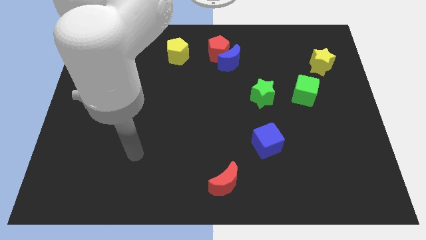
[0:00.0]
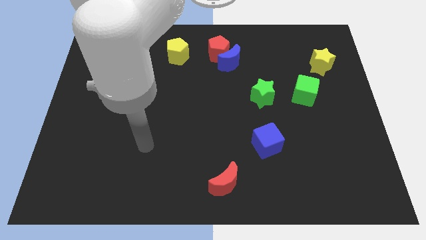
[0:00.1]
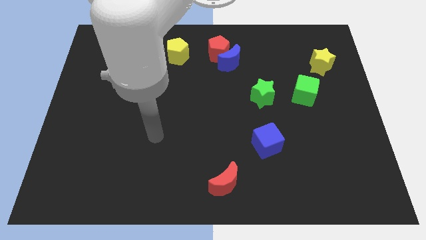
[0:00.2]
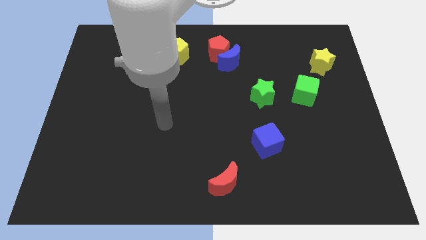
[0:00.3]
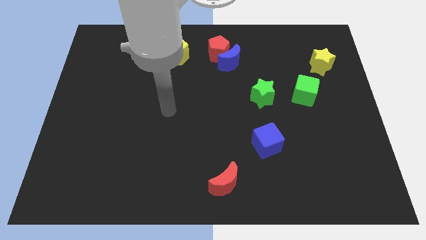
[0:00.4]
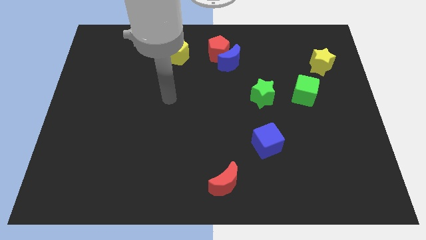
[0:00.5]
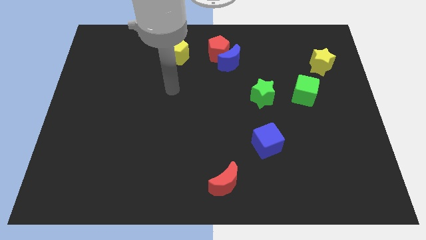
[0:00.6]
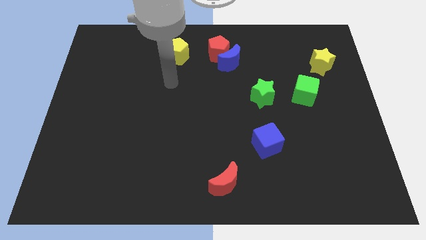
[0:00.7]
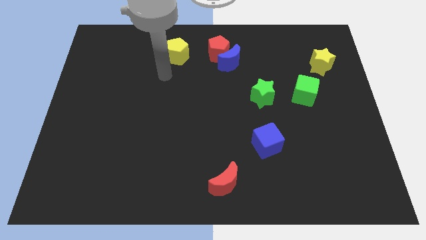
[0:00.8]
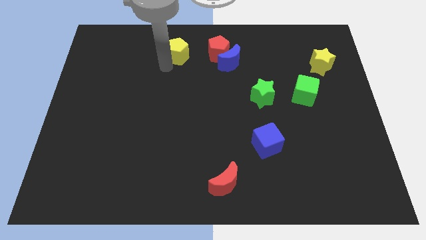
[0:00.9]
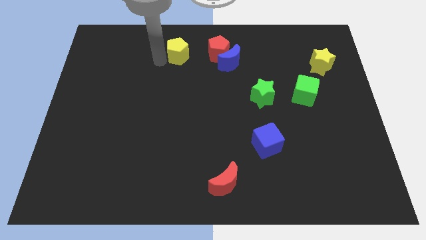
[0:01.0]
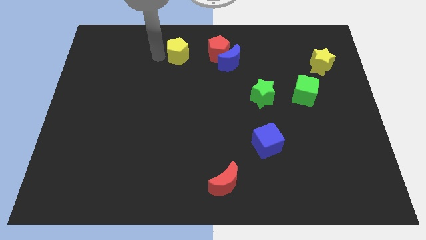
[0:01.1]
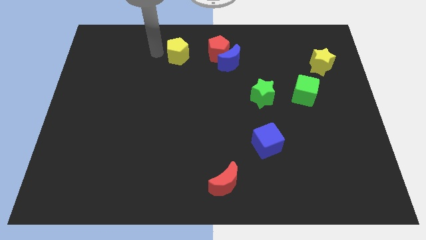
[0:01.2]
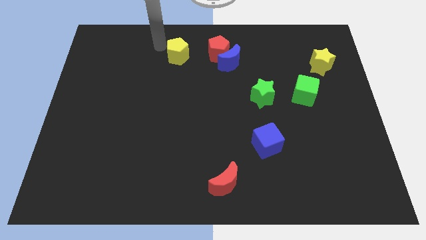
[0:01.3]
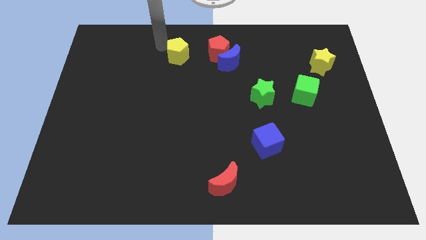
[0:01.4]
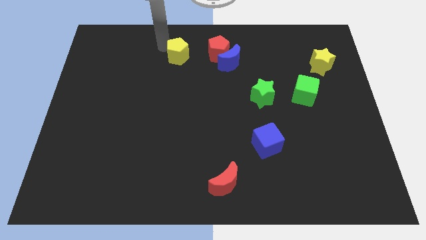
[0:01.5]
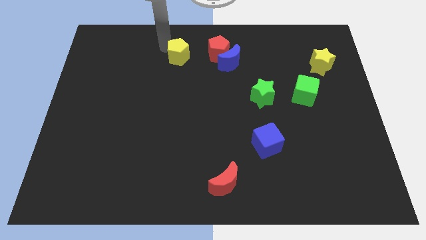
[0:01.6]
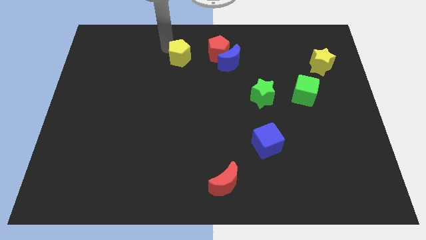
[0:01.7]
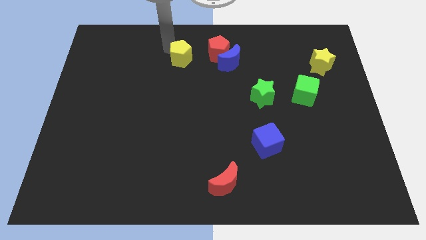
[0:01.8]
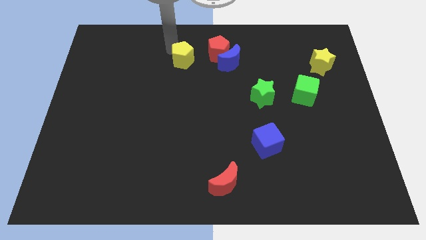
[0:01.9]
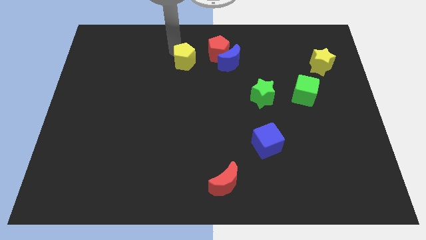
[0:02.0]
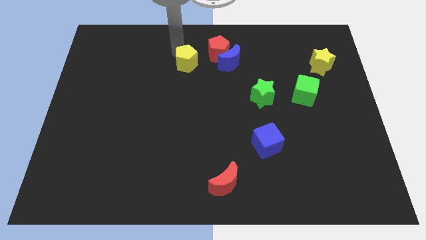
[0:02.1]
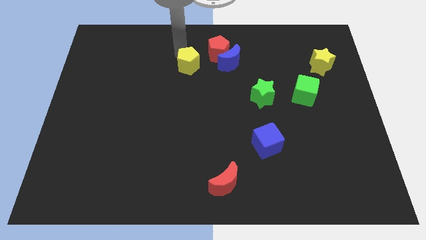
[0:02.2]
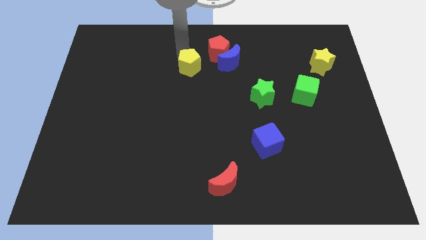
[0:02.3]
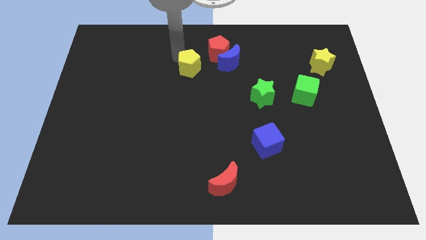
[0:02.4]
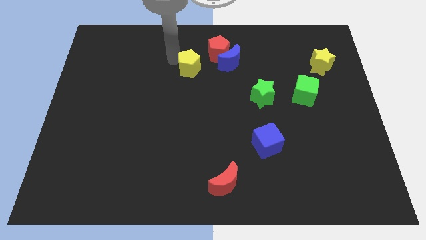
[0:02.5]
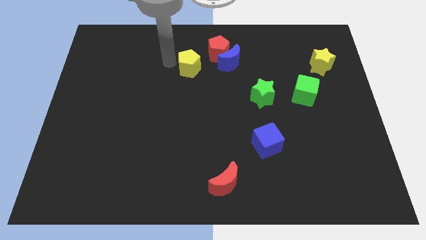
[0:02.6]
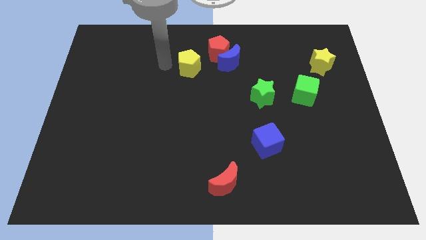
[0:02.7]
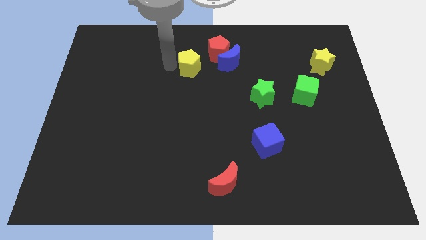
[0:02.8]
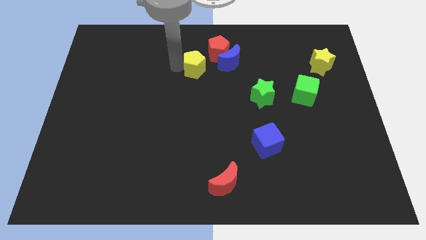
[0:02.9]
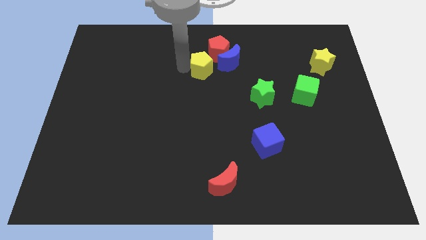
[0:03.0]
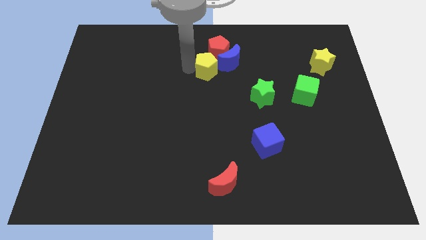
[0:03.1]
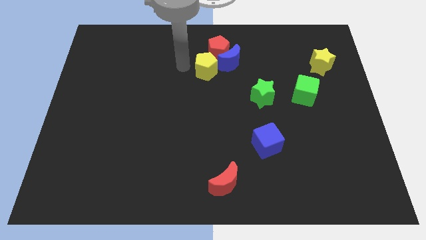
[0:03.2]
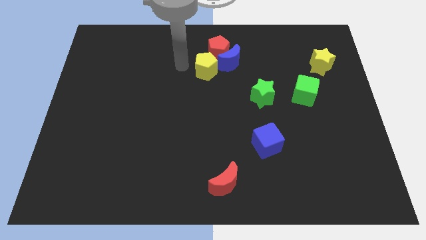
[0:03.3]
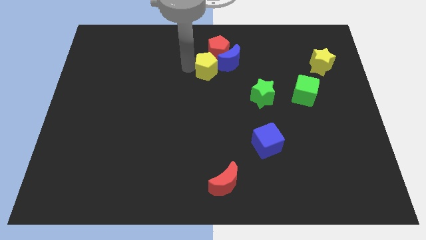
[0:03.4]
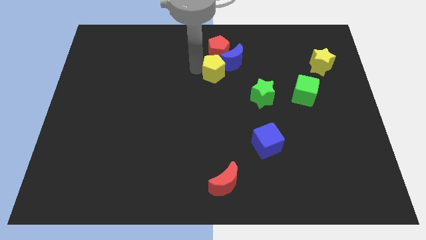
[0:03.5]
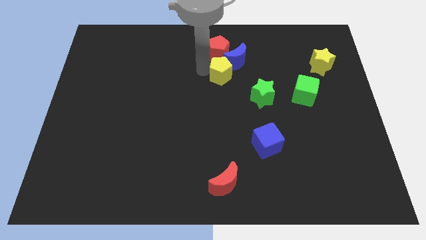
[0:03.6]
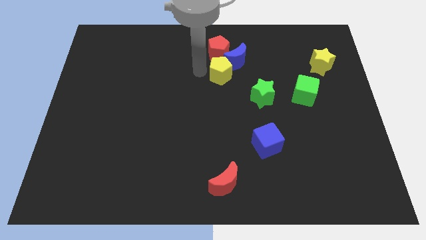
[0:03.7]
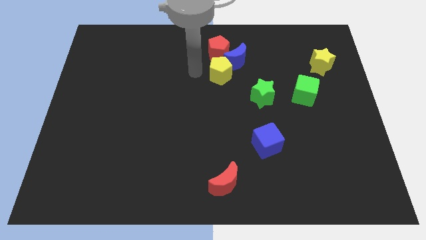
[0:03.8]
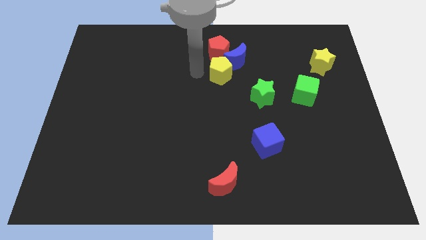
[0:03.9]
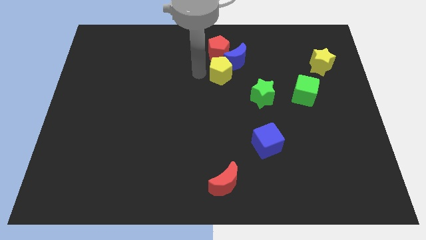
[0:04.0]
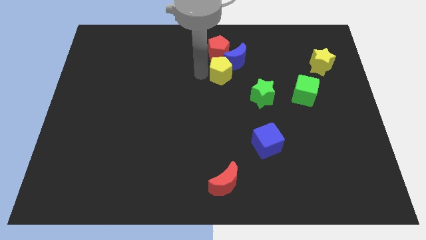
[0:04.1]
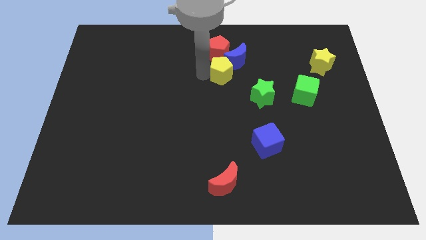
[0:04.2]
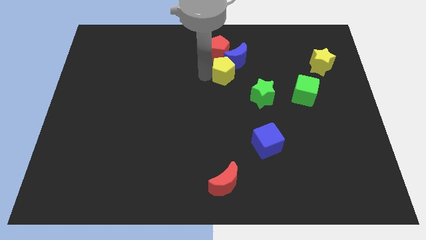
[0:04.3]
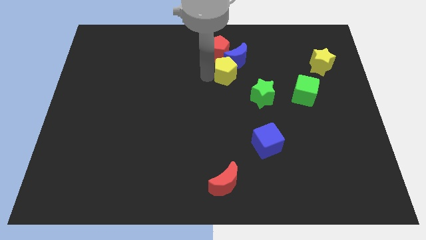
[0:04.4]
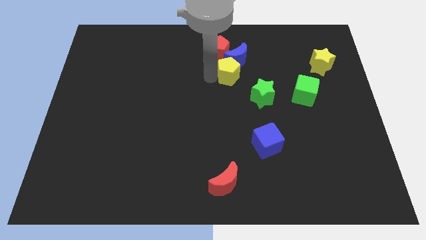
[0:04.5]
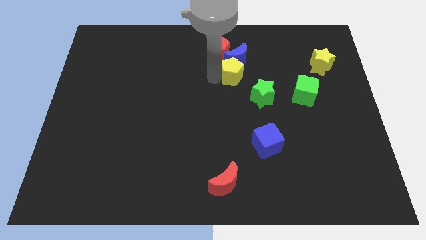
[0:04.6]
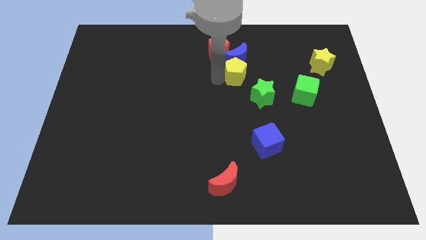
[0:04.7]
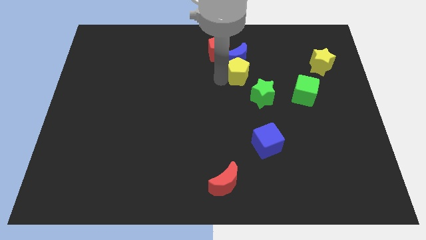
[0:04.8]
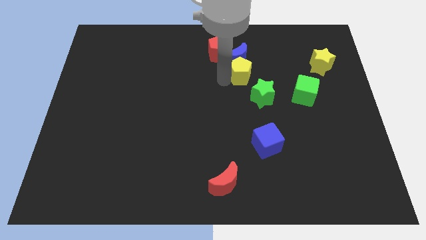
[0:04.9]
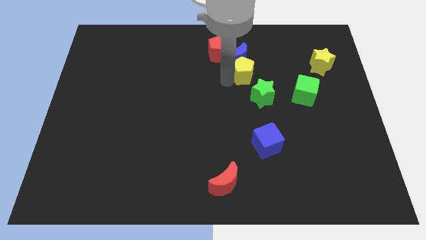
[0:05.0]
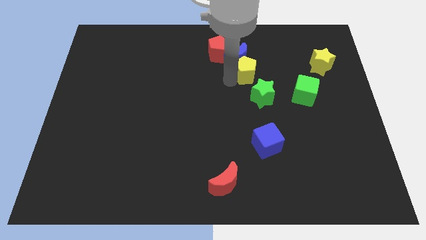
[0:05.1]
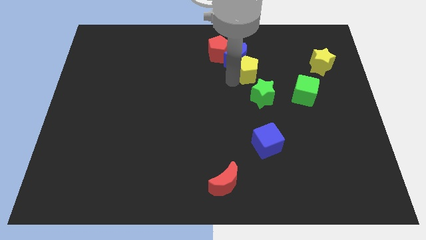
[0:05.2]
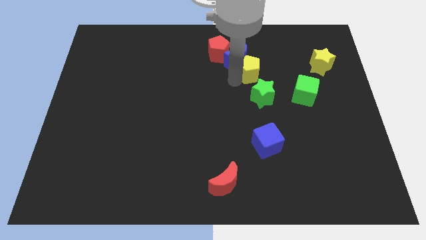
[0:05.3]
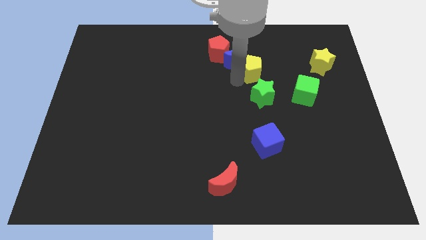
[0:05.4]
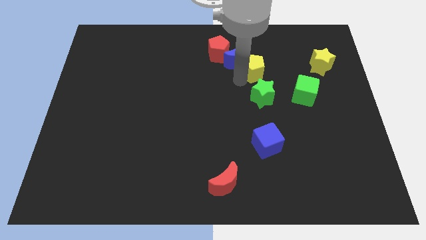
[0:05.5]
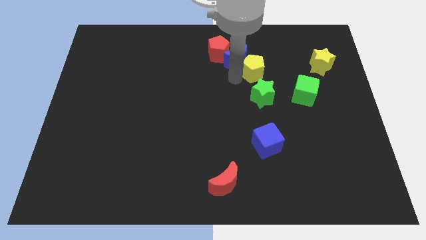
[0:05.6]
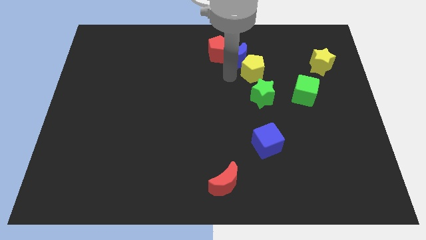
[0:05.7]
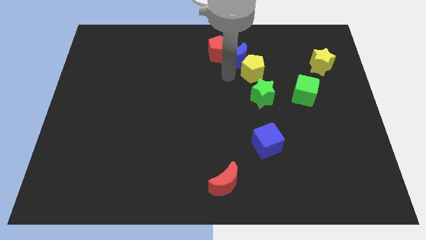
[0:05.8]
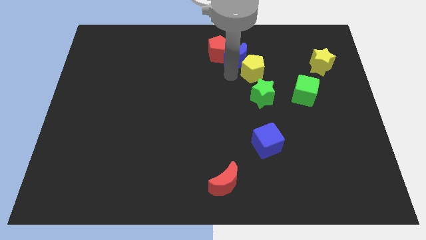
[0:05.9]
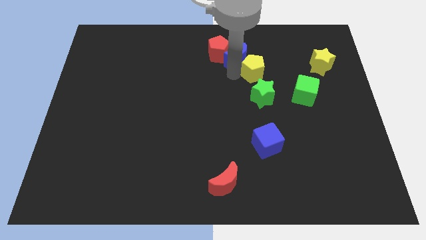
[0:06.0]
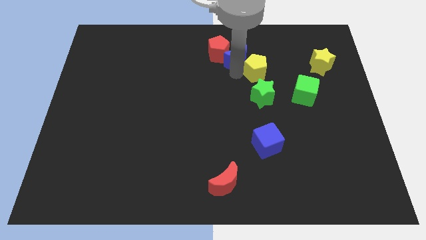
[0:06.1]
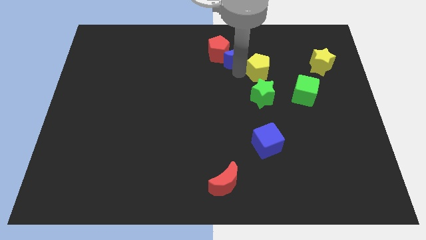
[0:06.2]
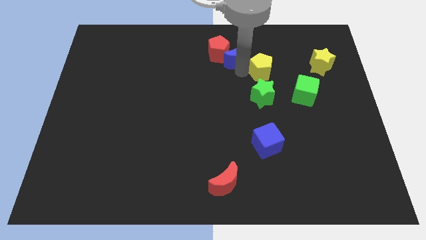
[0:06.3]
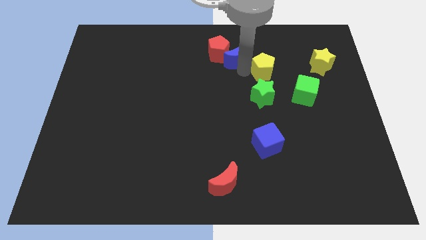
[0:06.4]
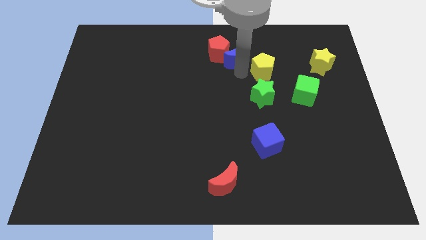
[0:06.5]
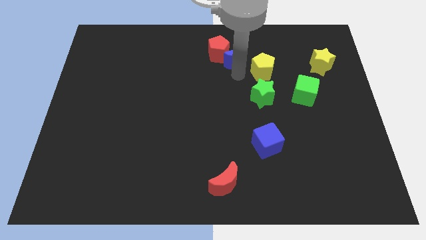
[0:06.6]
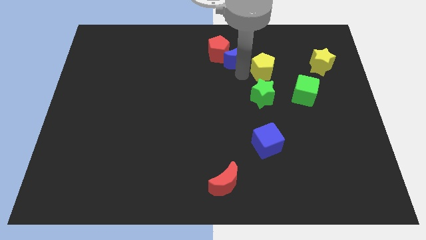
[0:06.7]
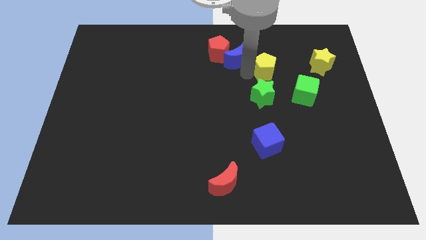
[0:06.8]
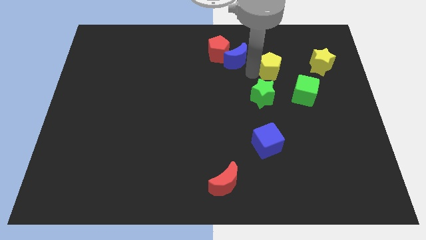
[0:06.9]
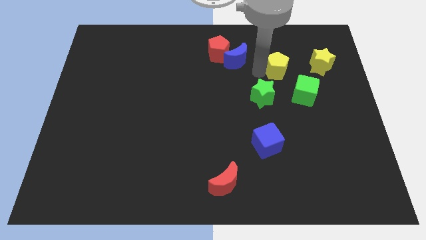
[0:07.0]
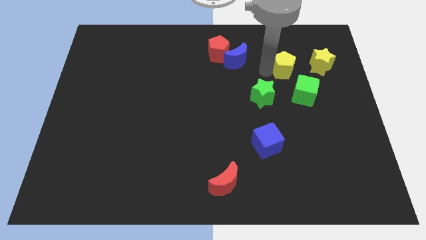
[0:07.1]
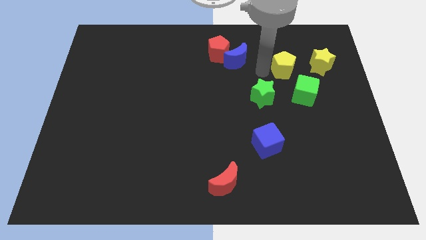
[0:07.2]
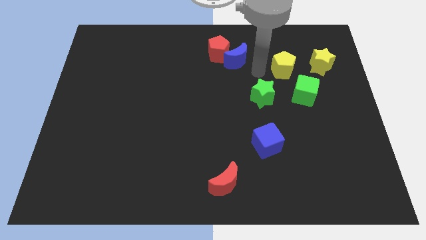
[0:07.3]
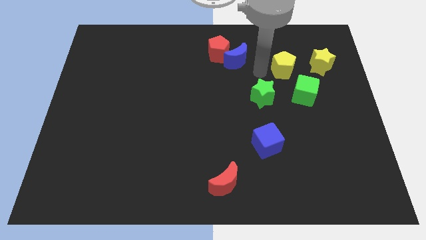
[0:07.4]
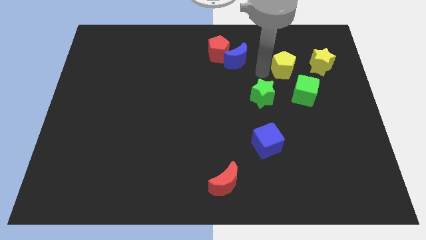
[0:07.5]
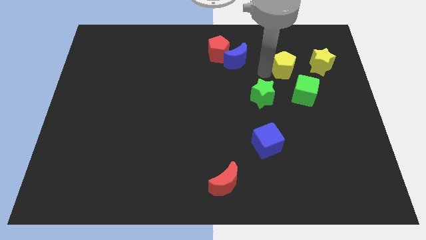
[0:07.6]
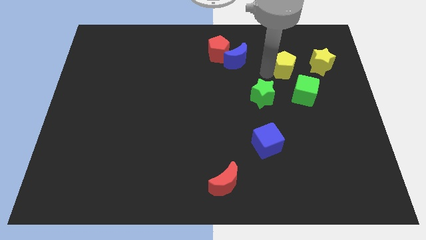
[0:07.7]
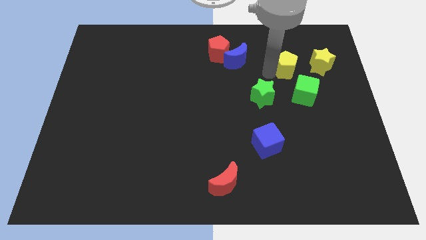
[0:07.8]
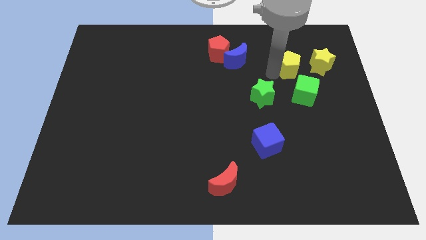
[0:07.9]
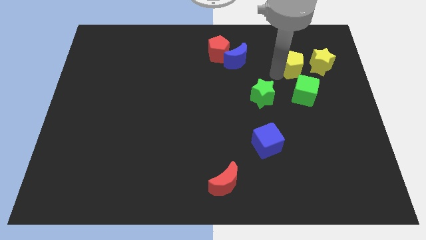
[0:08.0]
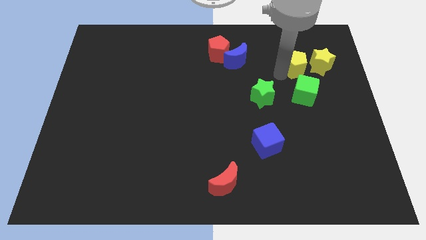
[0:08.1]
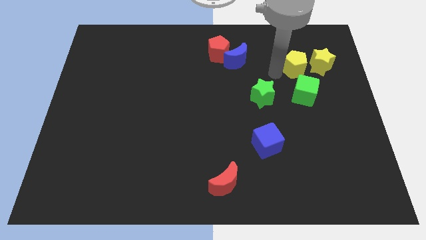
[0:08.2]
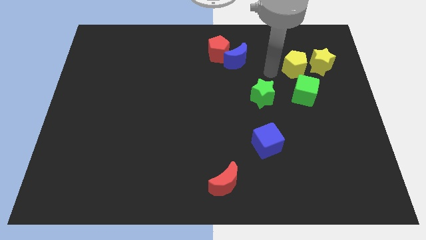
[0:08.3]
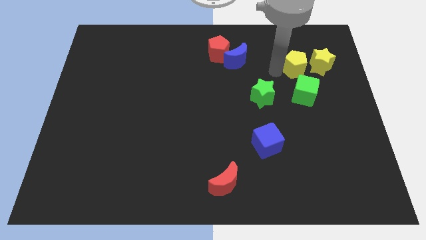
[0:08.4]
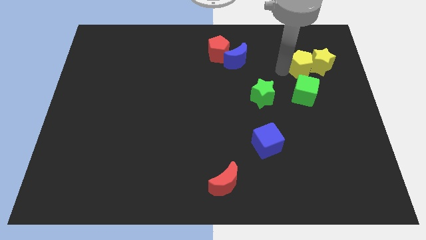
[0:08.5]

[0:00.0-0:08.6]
push the yellow pentagon close to the yellow star
